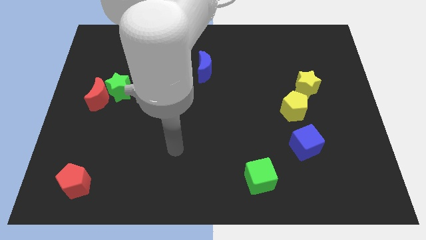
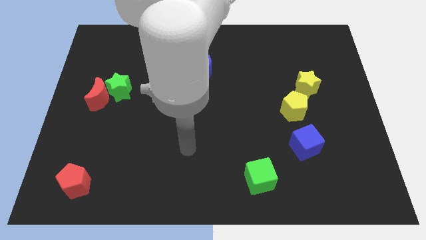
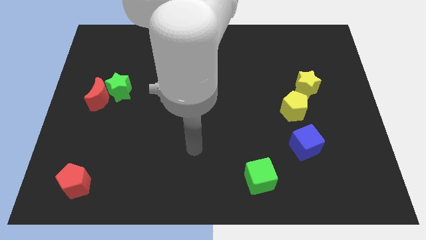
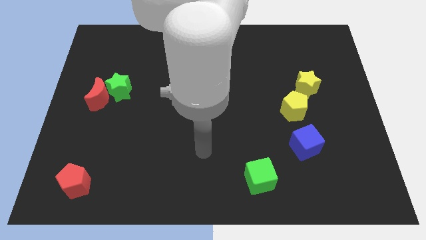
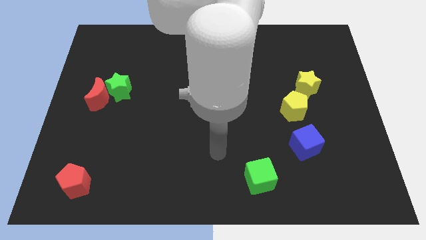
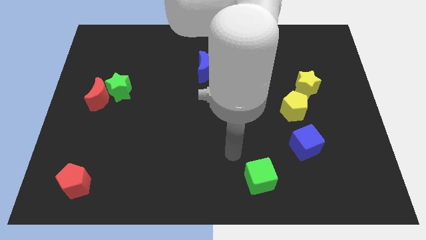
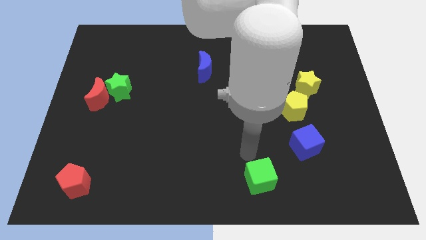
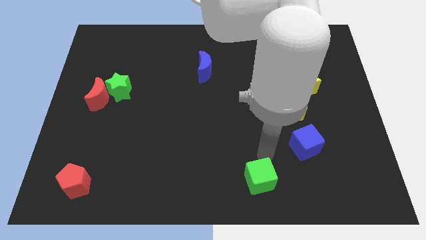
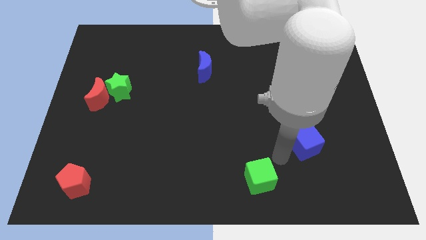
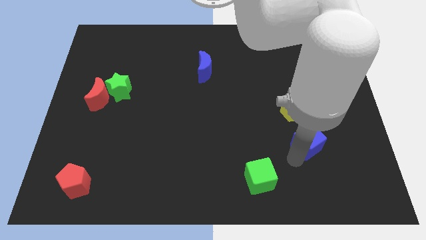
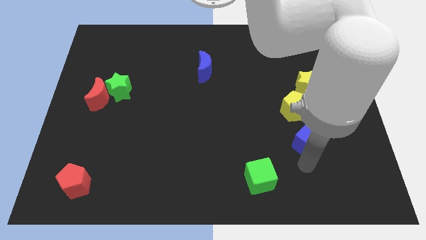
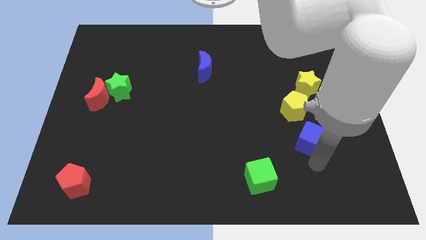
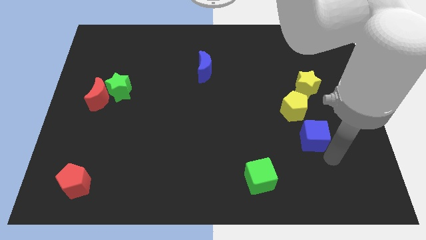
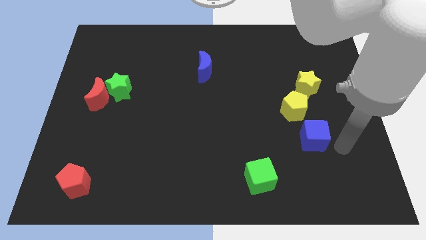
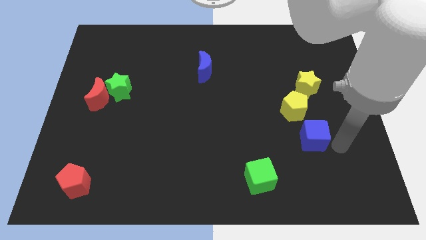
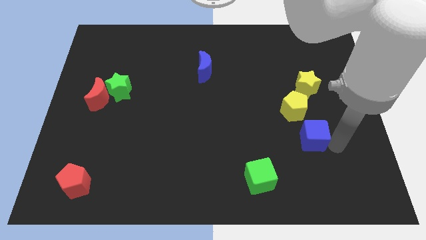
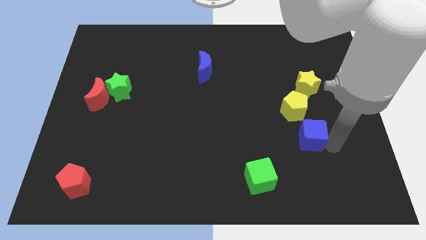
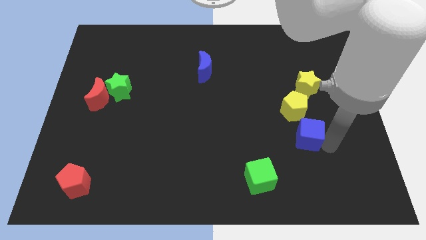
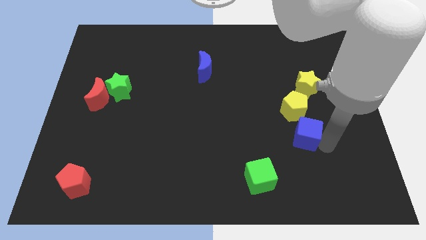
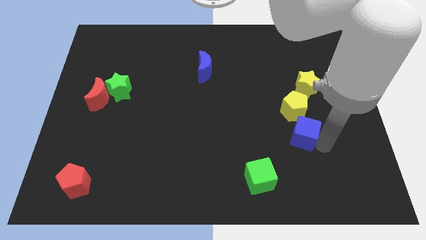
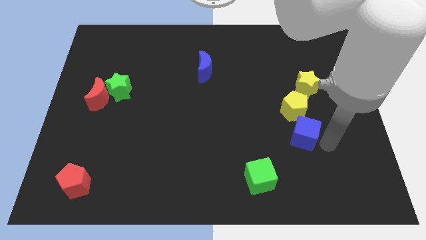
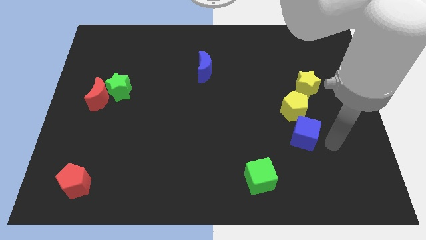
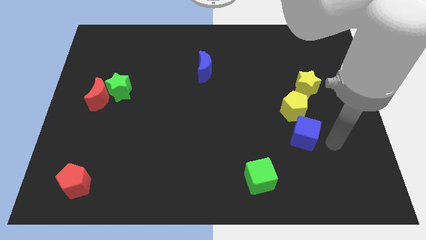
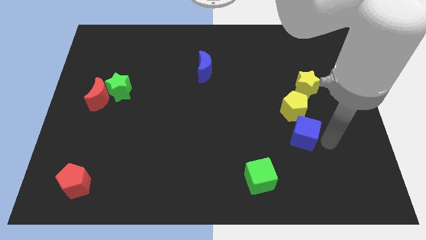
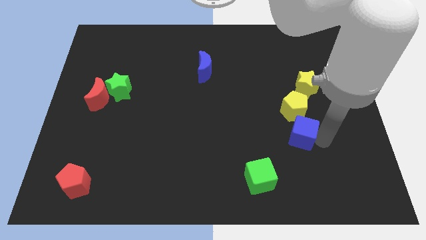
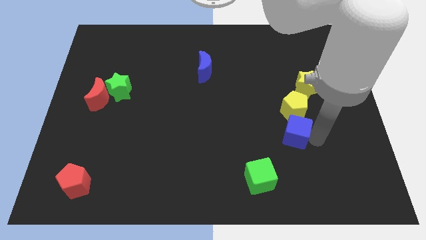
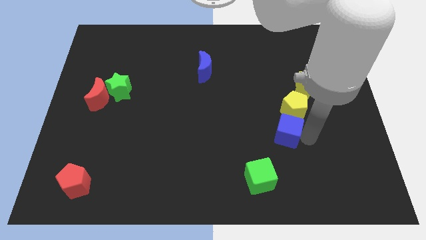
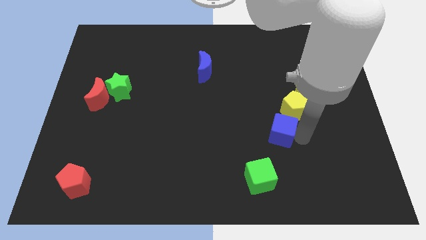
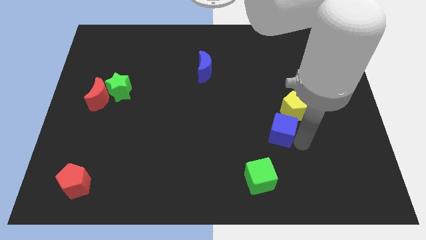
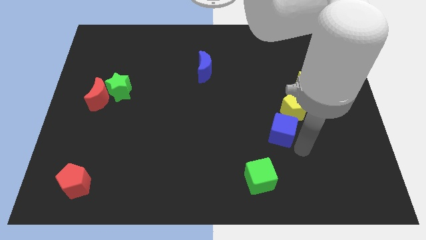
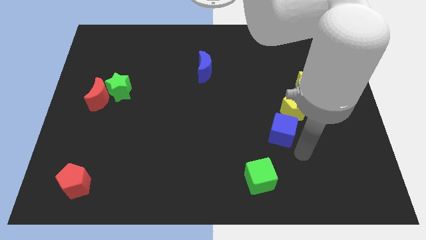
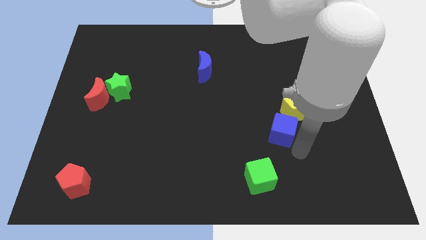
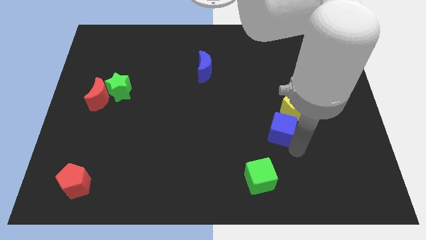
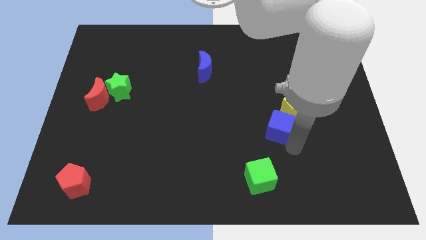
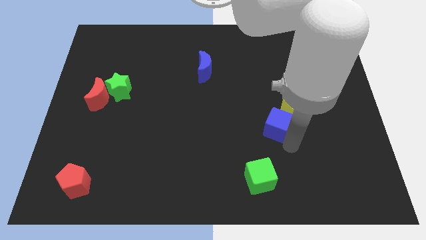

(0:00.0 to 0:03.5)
slide the blue cube a bit upwards and to the left

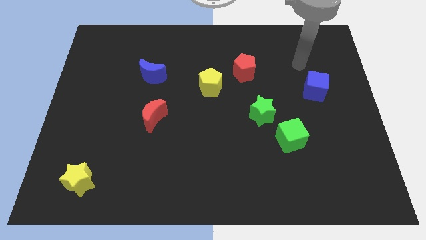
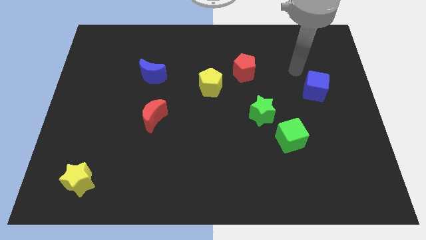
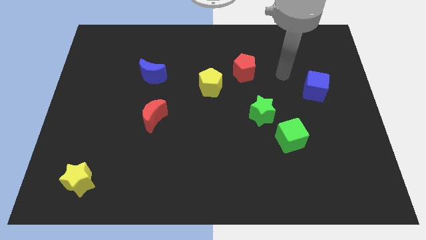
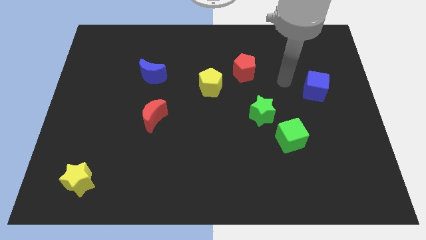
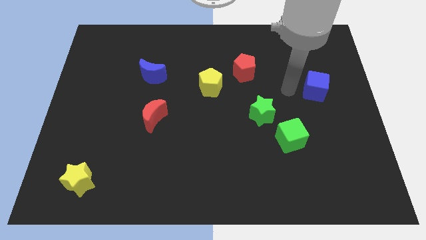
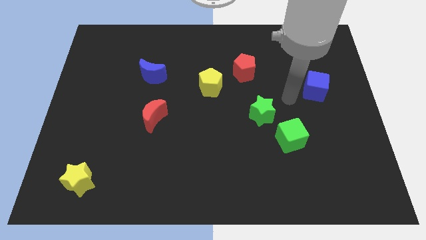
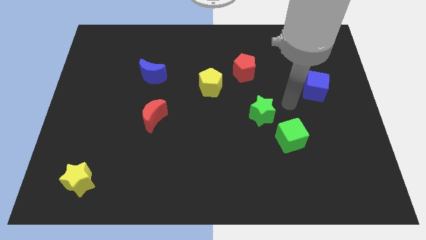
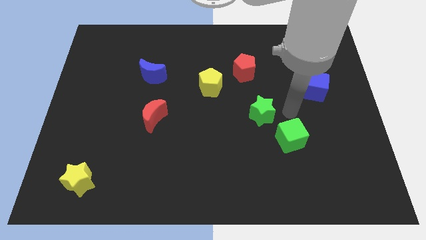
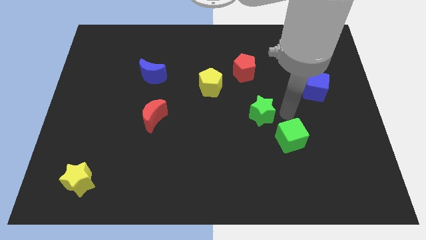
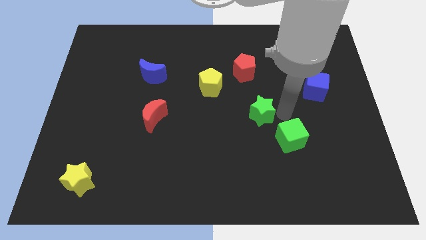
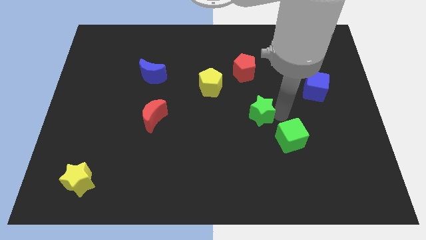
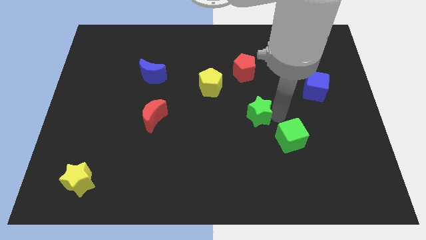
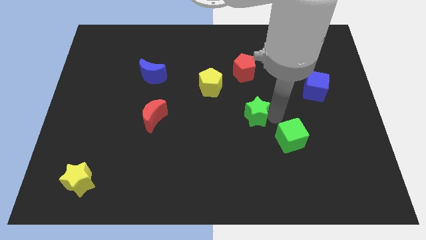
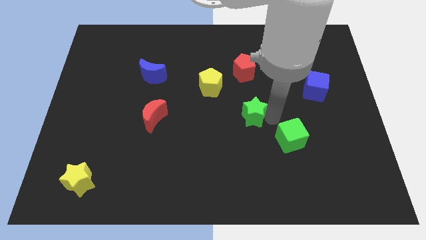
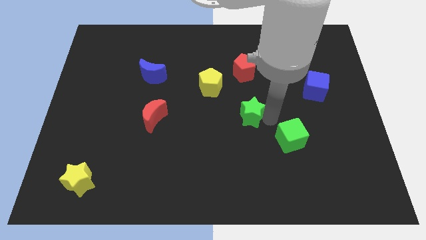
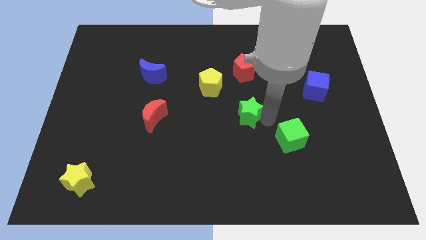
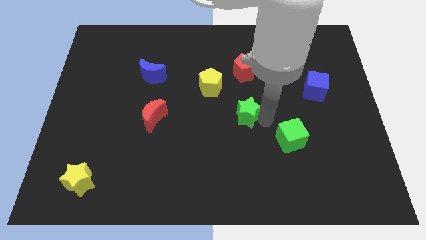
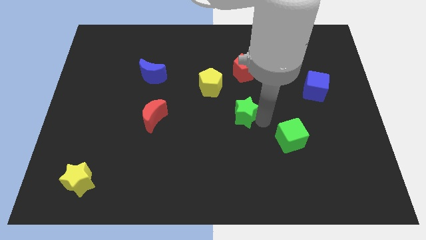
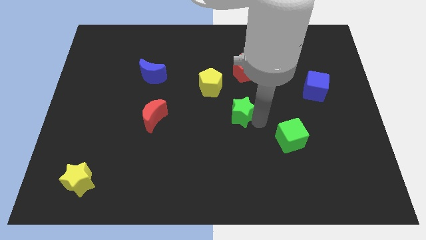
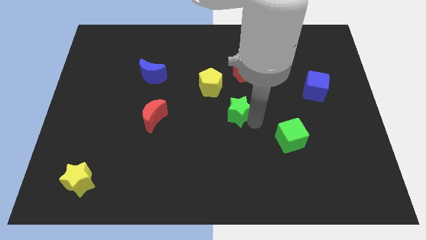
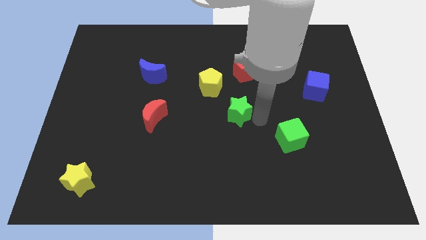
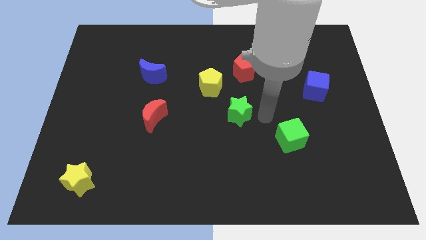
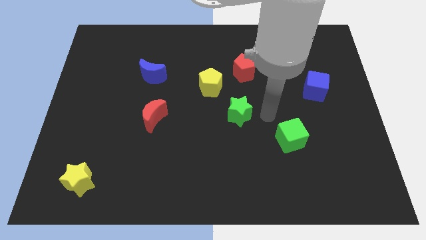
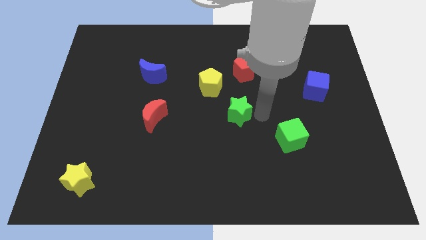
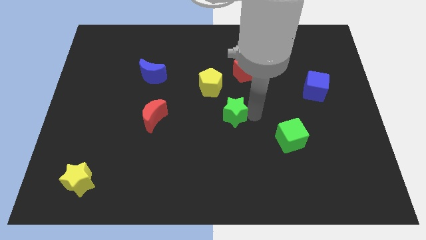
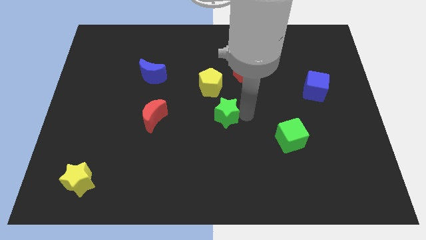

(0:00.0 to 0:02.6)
slightly push the green star to the left

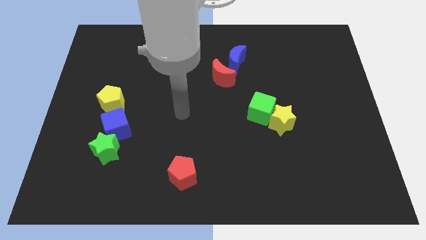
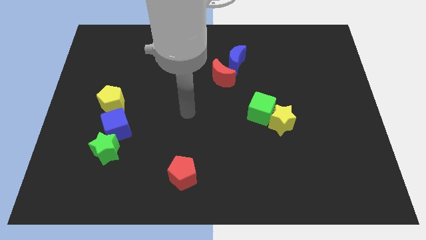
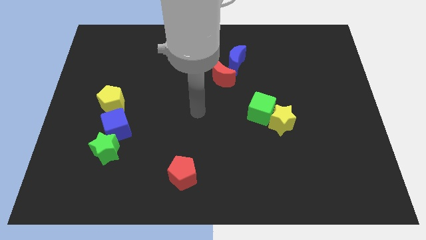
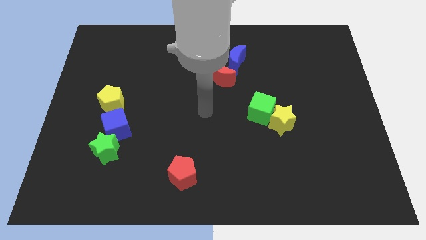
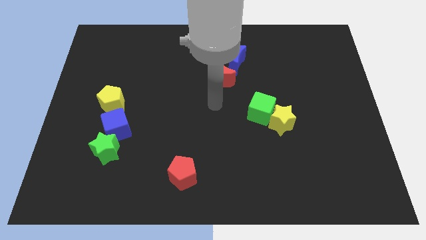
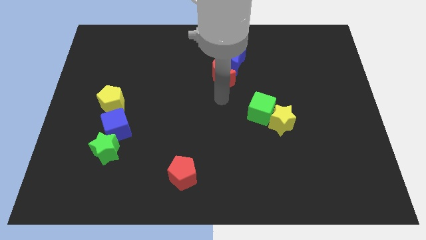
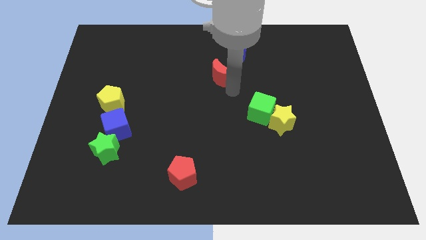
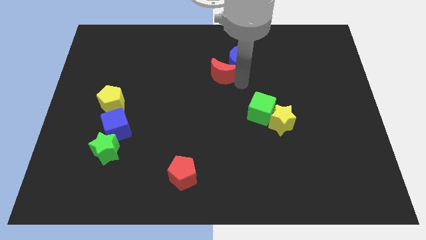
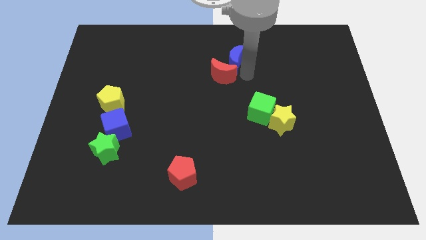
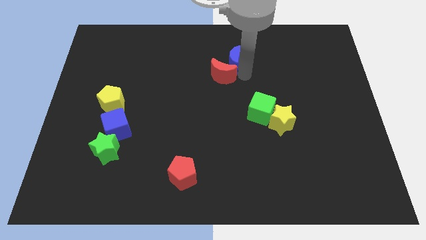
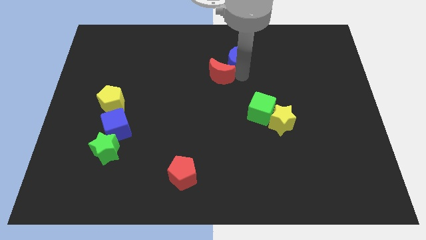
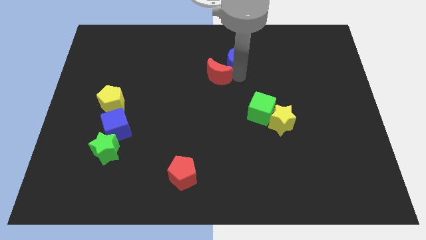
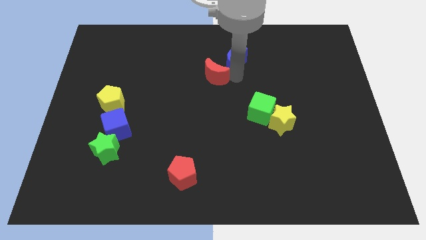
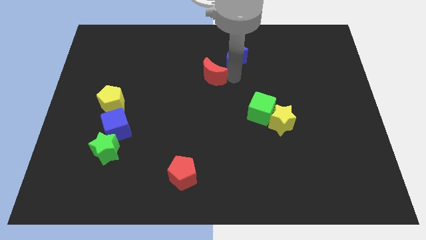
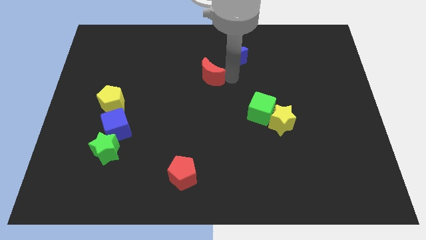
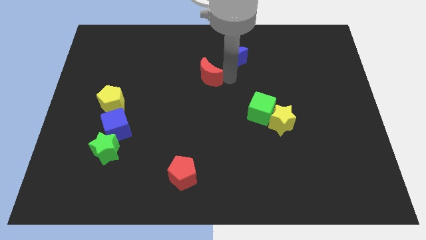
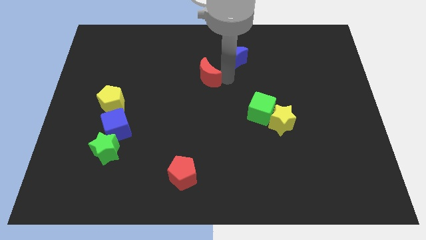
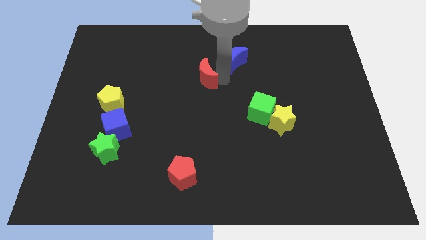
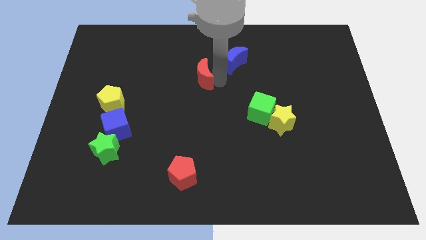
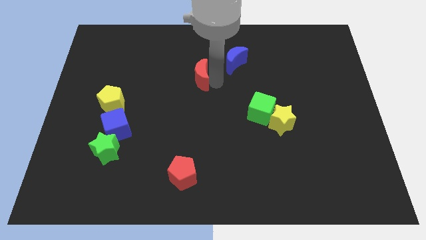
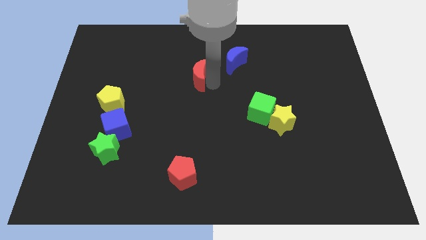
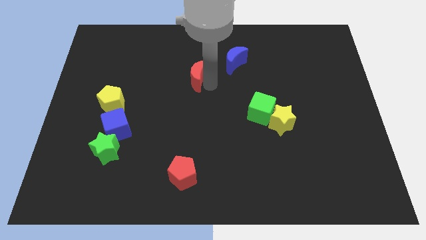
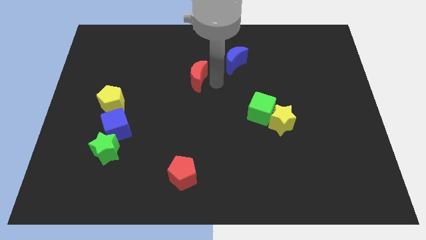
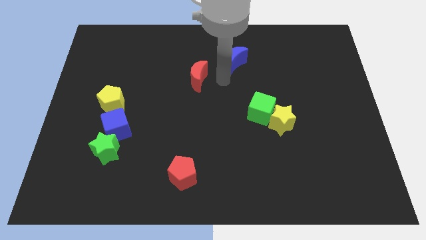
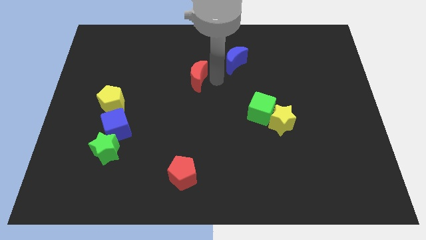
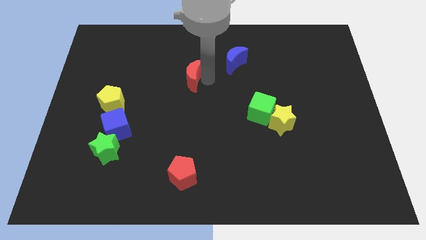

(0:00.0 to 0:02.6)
slightly push the red moon left
